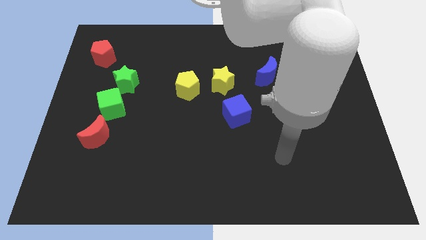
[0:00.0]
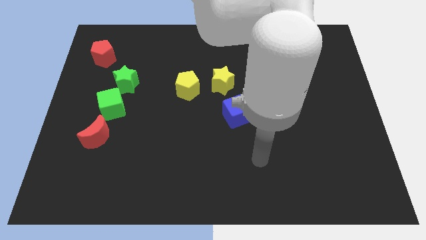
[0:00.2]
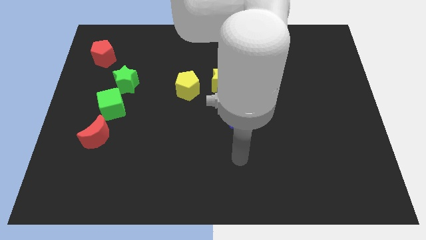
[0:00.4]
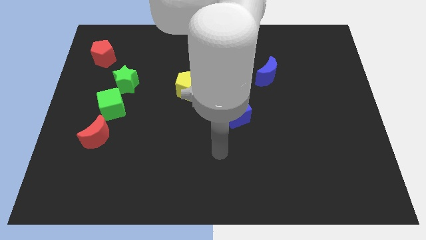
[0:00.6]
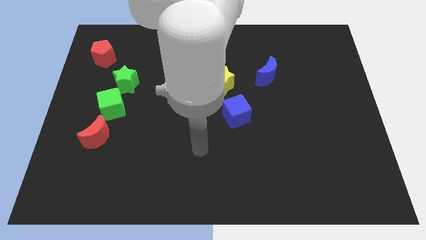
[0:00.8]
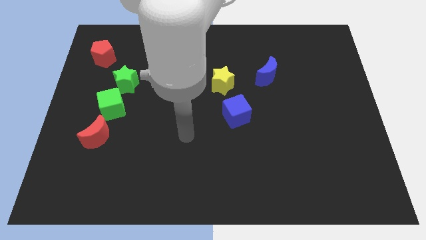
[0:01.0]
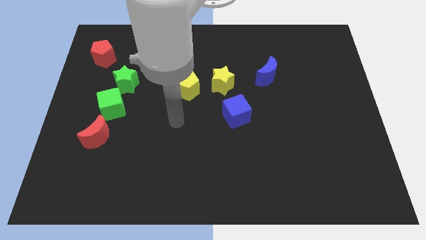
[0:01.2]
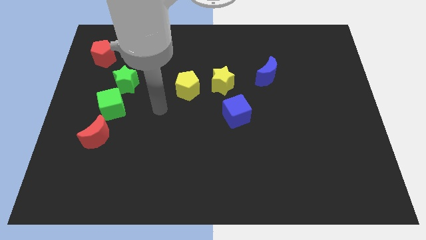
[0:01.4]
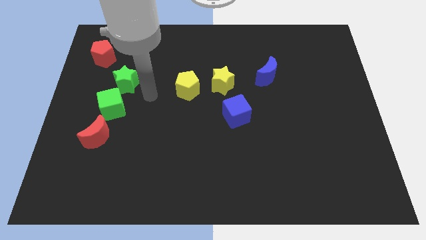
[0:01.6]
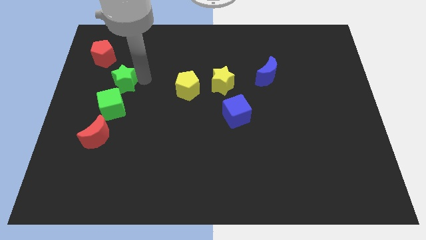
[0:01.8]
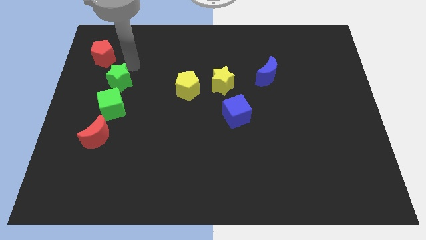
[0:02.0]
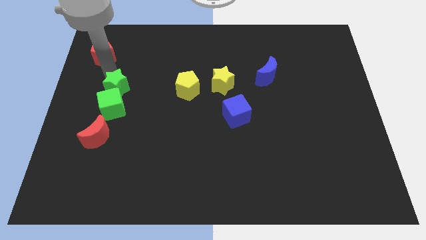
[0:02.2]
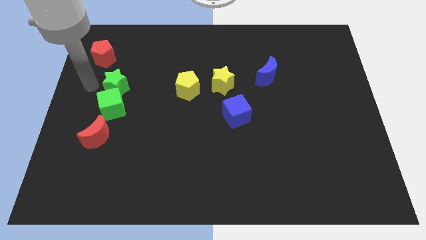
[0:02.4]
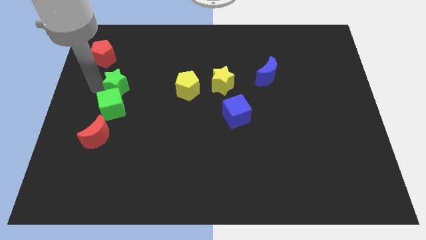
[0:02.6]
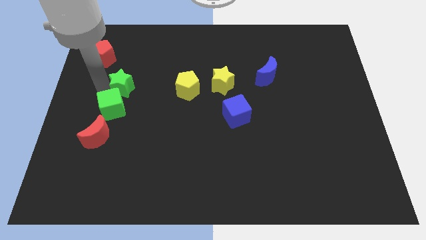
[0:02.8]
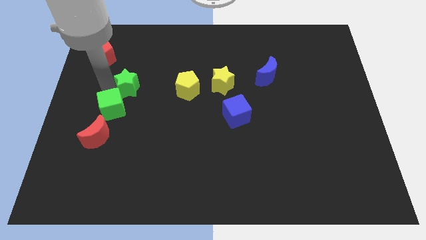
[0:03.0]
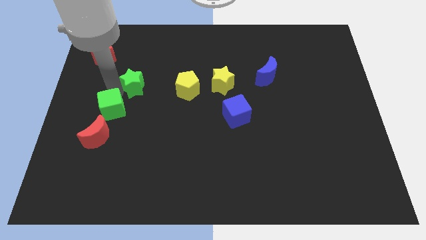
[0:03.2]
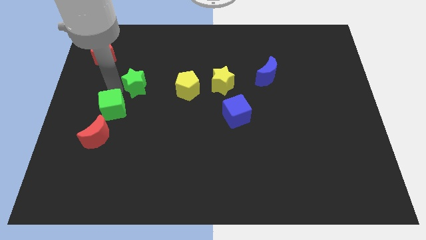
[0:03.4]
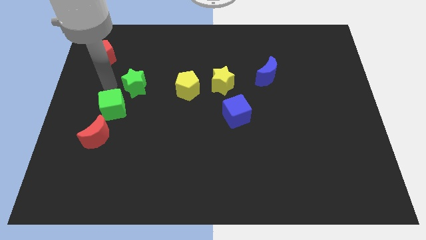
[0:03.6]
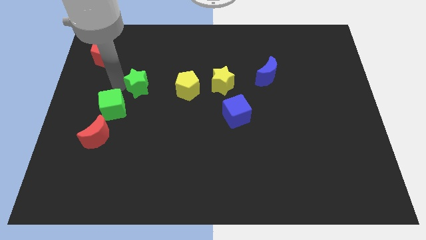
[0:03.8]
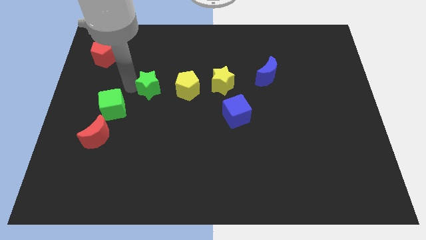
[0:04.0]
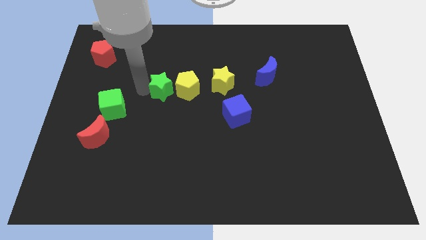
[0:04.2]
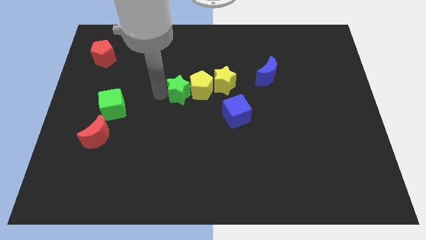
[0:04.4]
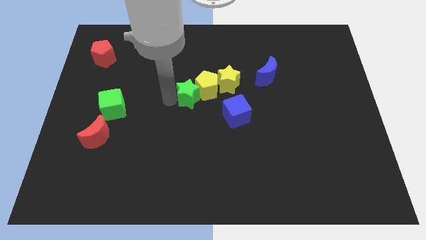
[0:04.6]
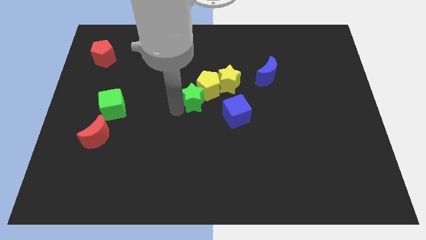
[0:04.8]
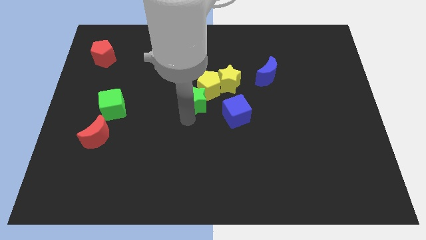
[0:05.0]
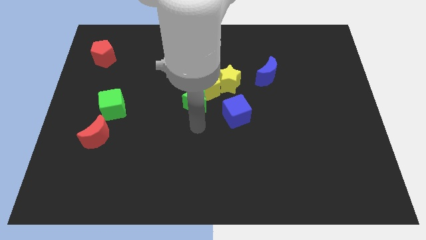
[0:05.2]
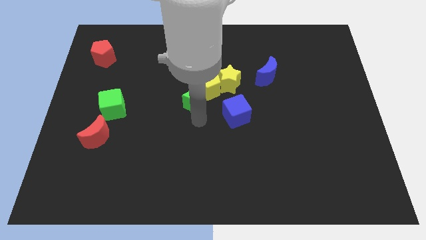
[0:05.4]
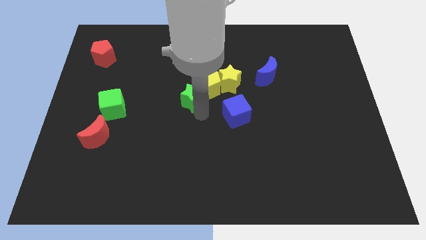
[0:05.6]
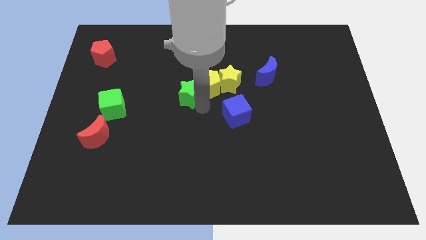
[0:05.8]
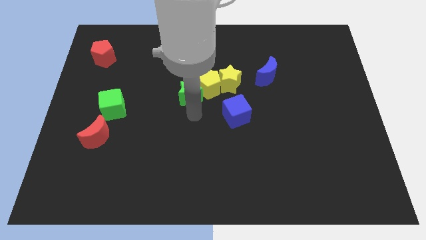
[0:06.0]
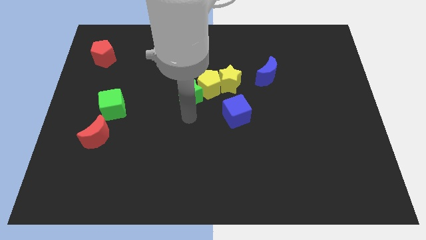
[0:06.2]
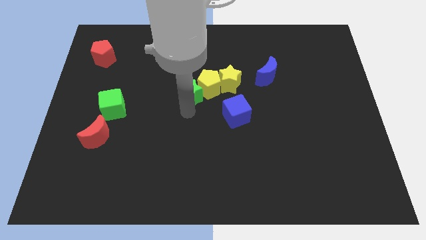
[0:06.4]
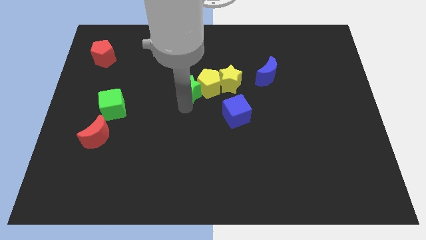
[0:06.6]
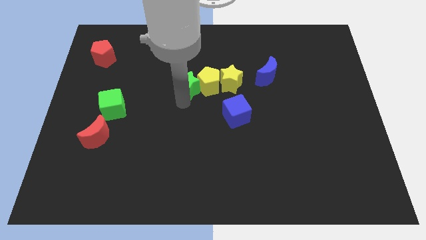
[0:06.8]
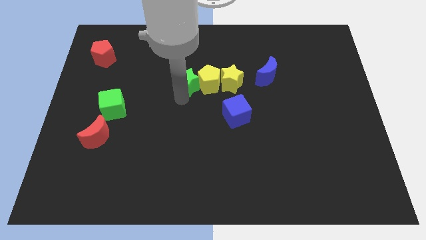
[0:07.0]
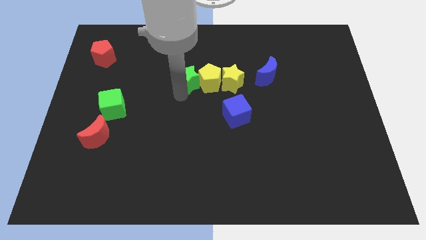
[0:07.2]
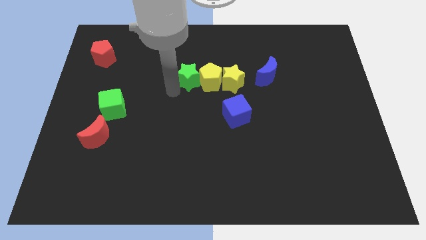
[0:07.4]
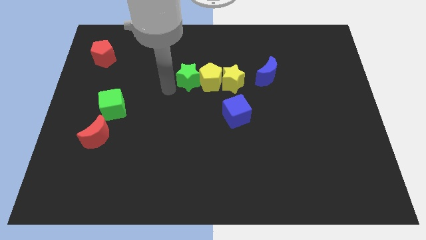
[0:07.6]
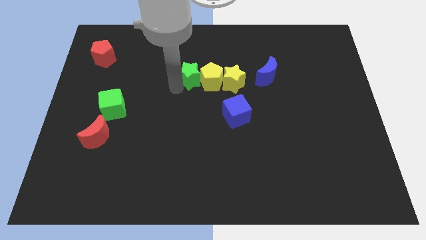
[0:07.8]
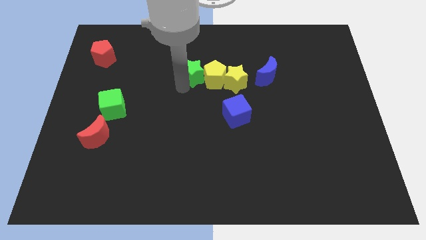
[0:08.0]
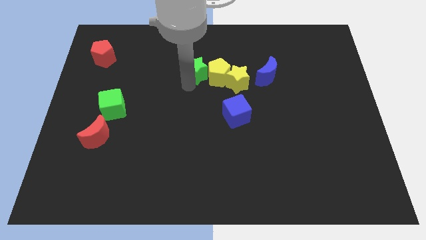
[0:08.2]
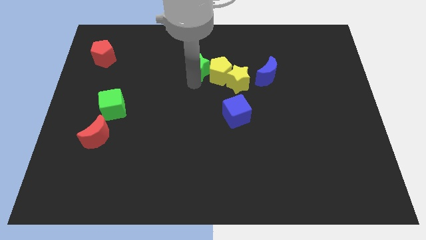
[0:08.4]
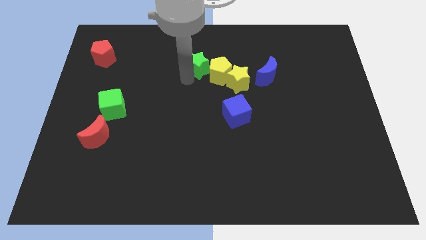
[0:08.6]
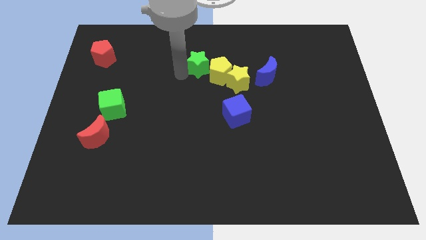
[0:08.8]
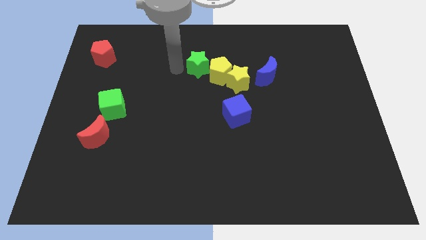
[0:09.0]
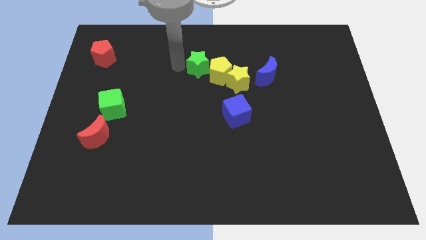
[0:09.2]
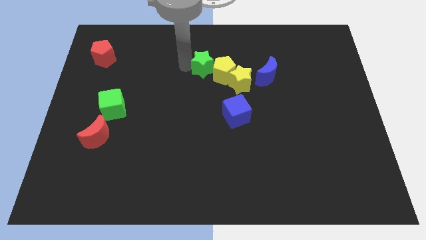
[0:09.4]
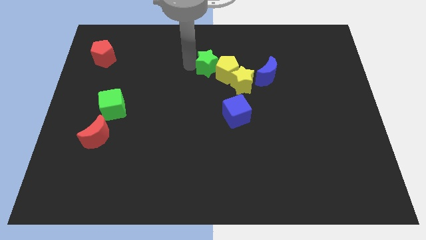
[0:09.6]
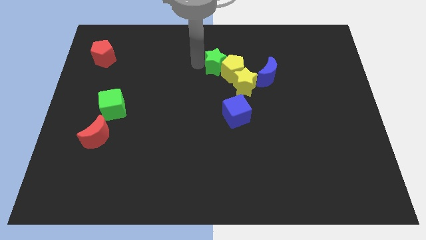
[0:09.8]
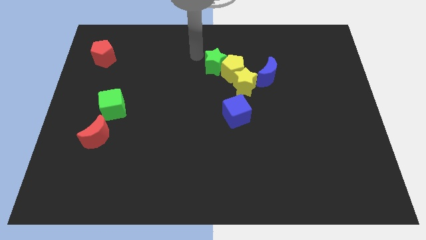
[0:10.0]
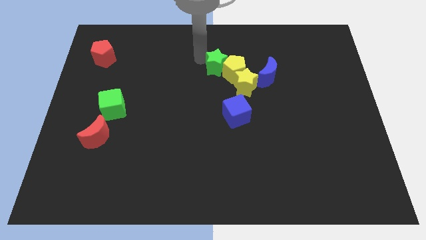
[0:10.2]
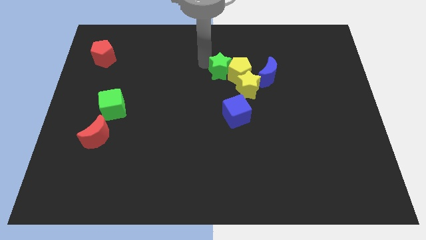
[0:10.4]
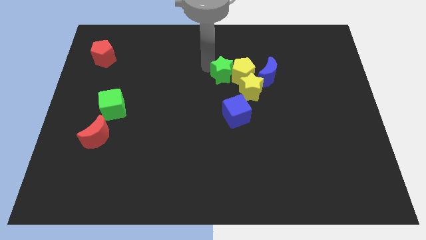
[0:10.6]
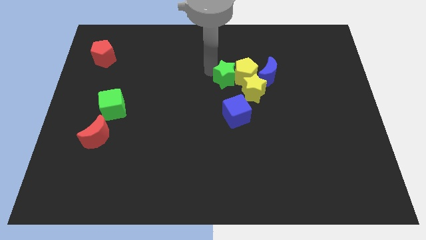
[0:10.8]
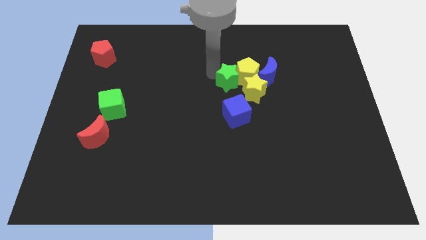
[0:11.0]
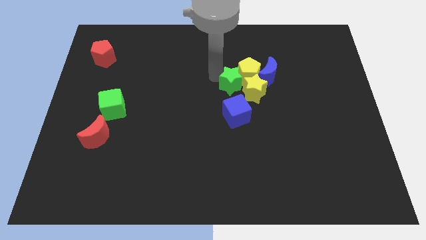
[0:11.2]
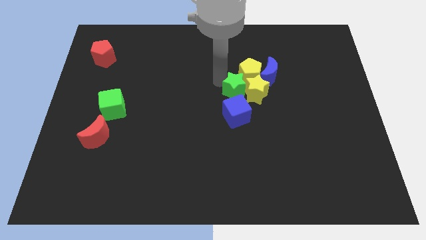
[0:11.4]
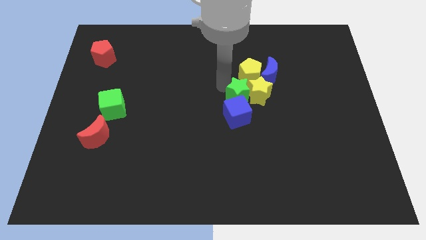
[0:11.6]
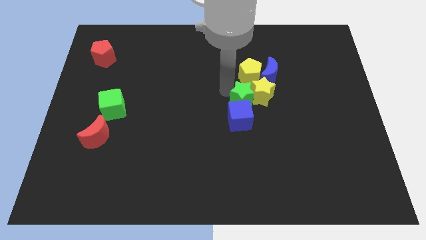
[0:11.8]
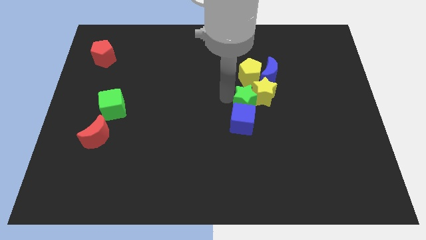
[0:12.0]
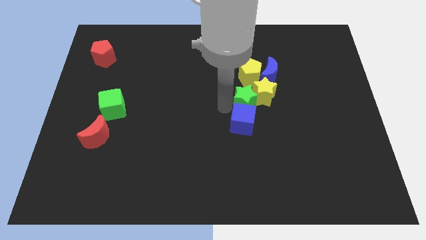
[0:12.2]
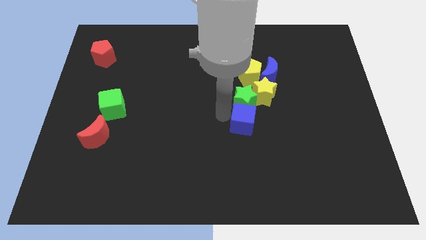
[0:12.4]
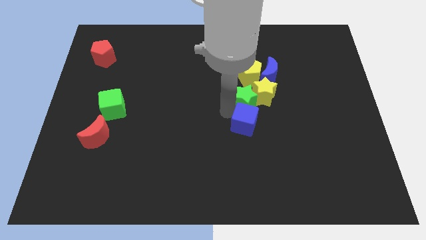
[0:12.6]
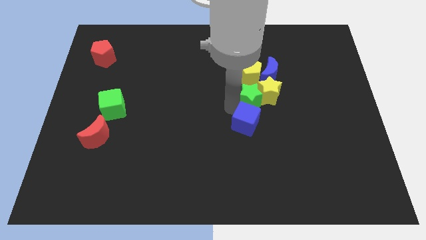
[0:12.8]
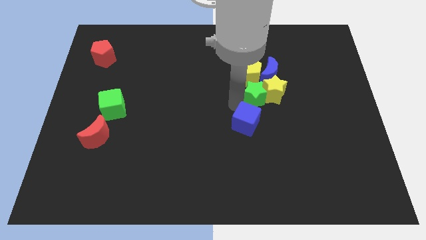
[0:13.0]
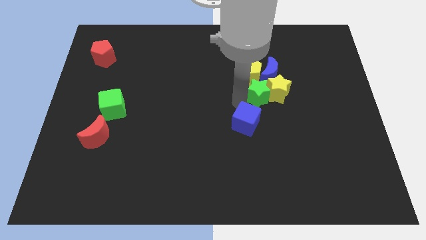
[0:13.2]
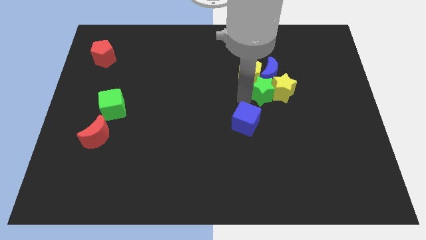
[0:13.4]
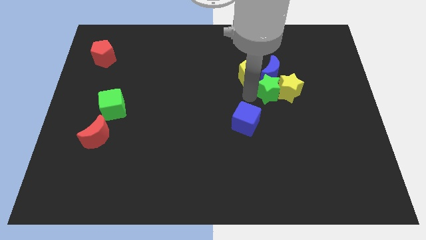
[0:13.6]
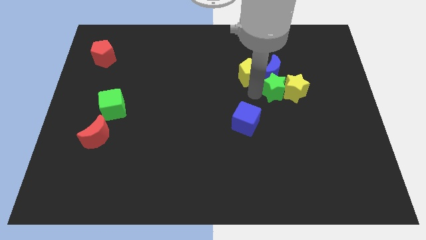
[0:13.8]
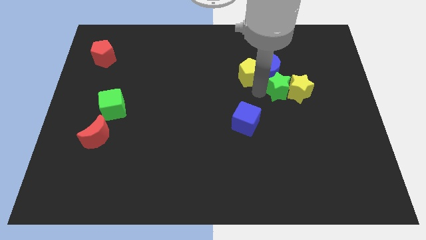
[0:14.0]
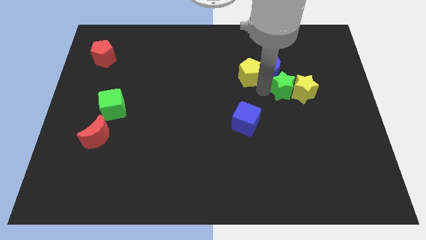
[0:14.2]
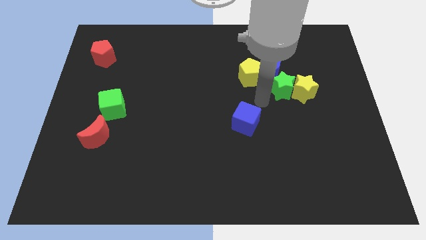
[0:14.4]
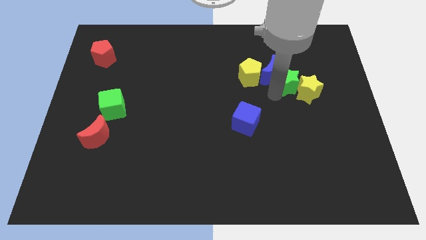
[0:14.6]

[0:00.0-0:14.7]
move the green star just right of the blue moon
